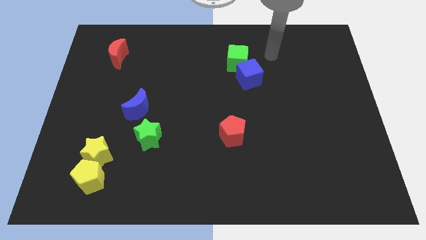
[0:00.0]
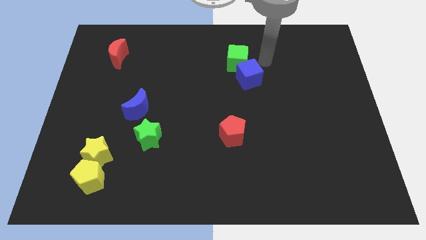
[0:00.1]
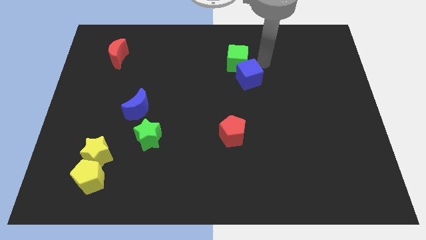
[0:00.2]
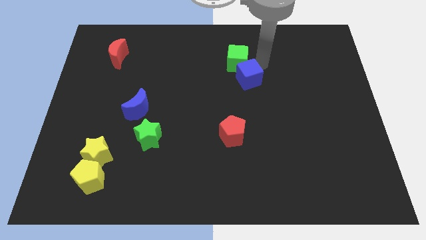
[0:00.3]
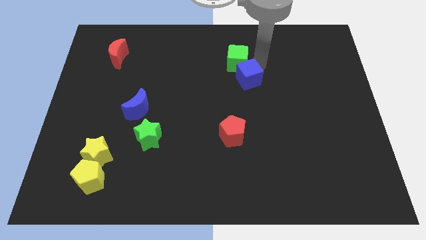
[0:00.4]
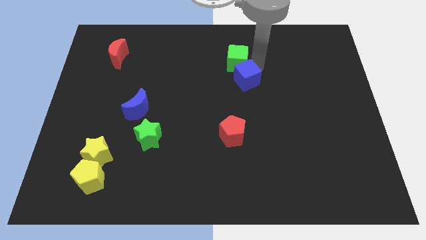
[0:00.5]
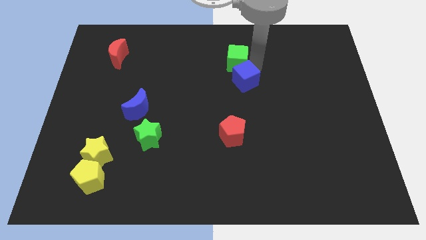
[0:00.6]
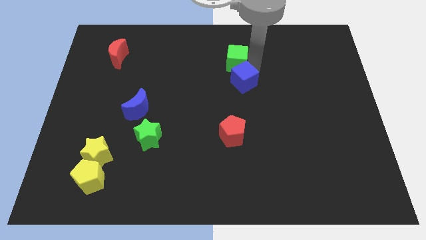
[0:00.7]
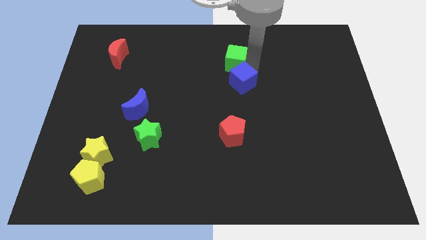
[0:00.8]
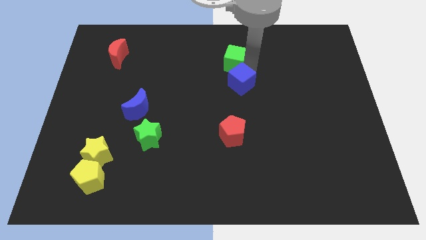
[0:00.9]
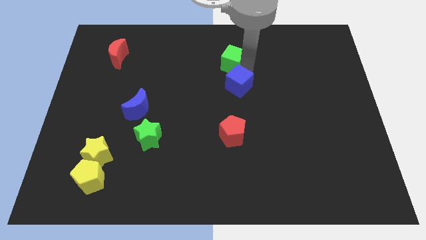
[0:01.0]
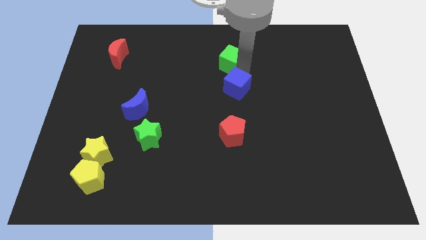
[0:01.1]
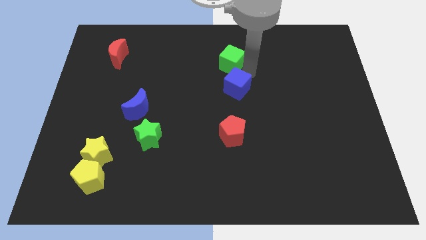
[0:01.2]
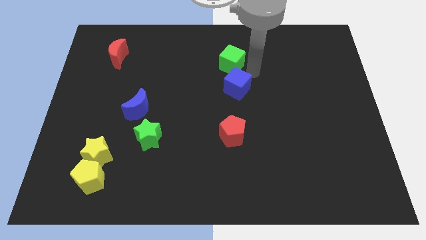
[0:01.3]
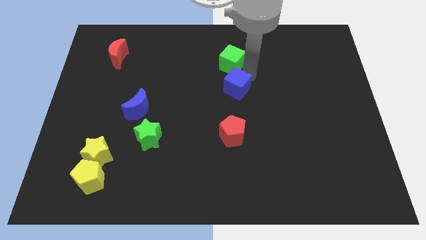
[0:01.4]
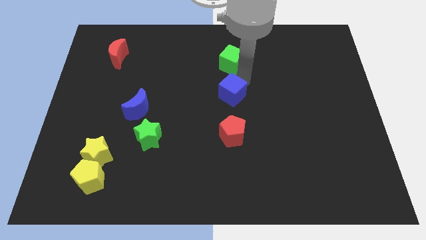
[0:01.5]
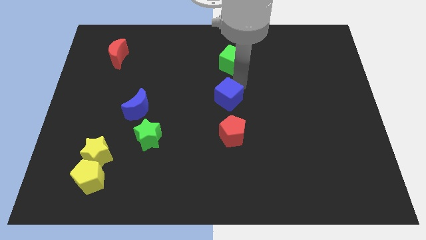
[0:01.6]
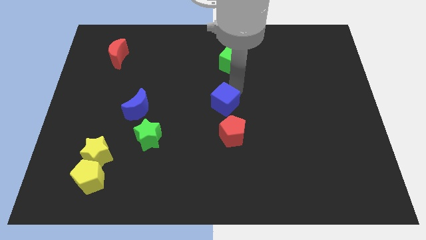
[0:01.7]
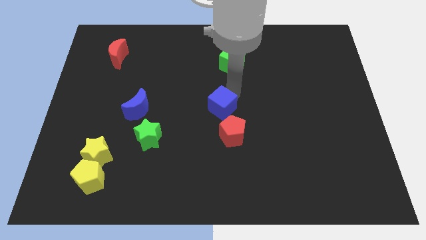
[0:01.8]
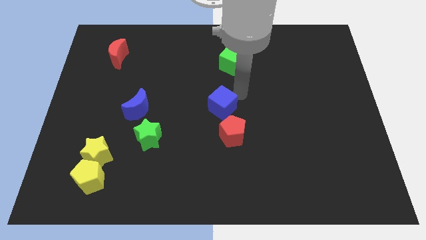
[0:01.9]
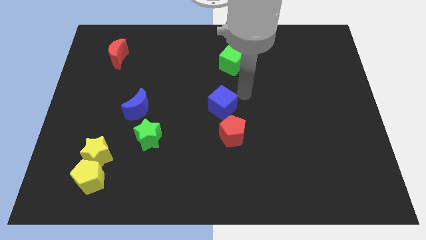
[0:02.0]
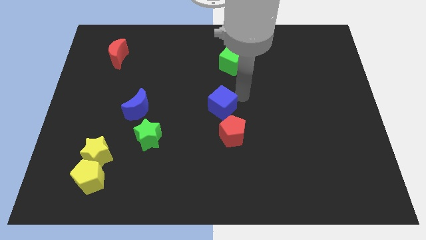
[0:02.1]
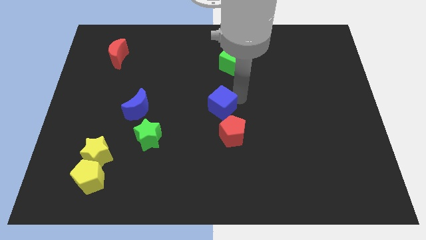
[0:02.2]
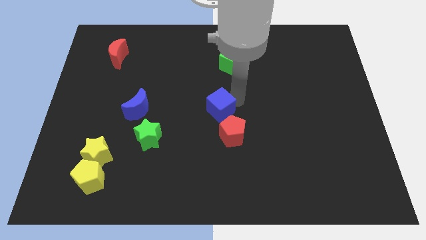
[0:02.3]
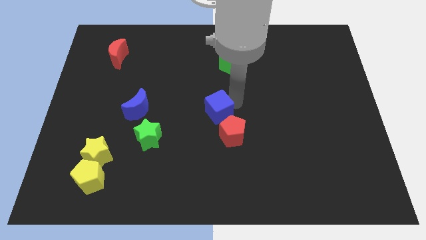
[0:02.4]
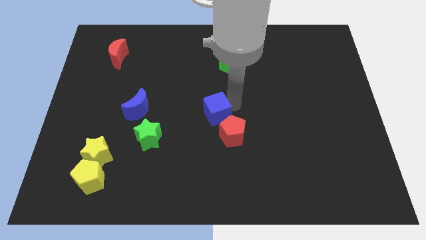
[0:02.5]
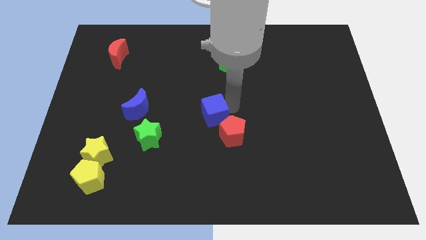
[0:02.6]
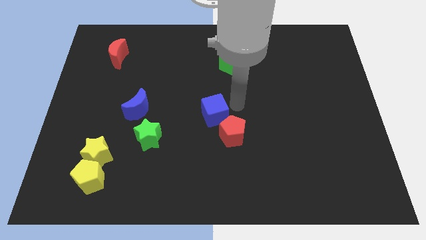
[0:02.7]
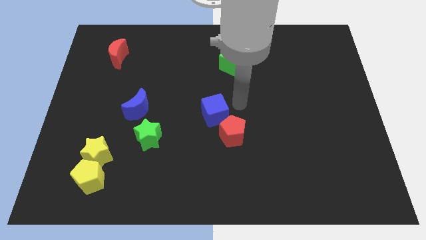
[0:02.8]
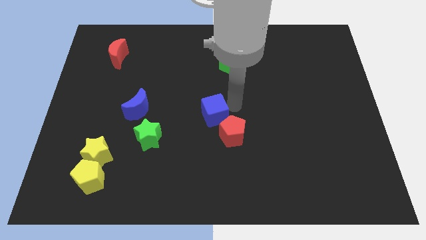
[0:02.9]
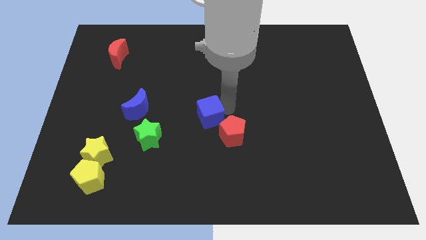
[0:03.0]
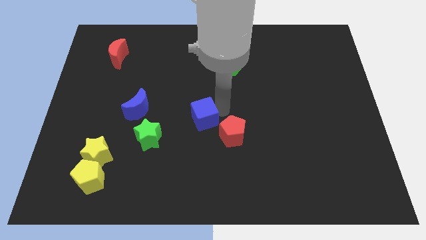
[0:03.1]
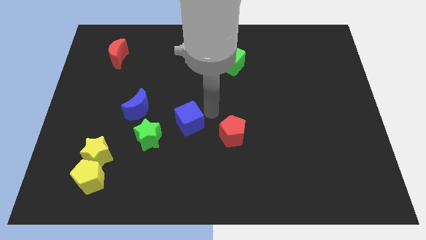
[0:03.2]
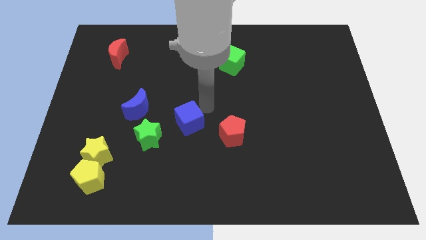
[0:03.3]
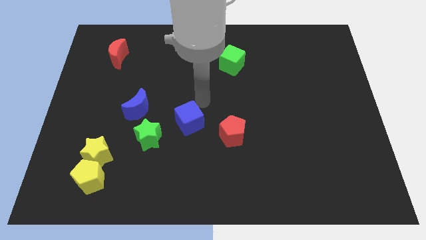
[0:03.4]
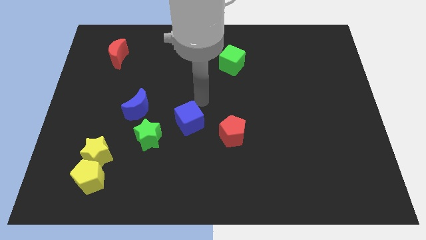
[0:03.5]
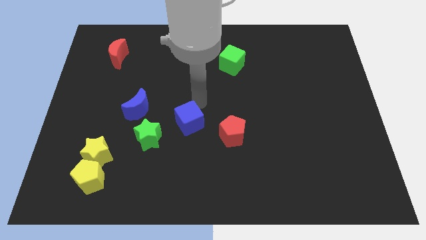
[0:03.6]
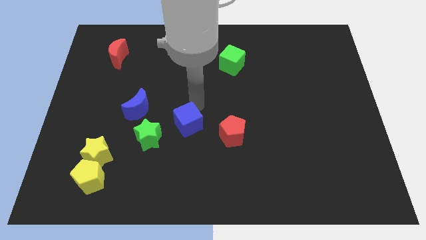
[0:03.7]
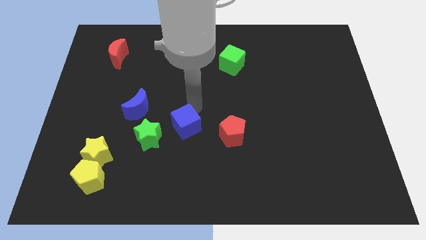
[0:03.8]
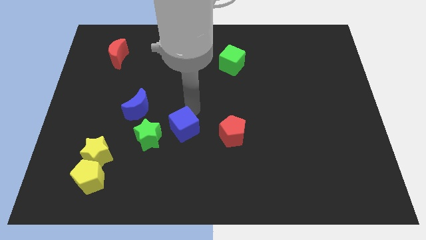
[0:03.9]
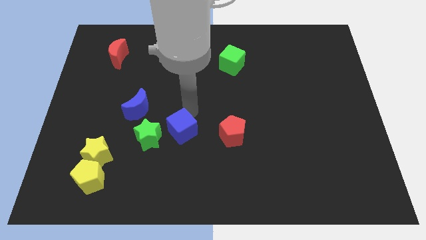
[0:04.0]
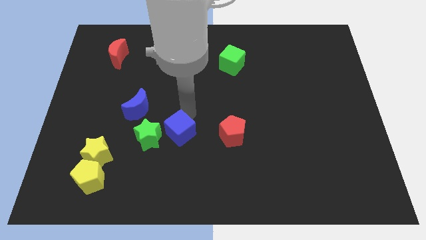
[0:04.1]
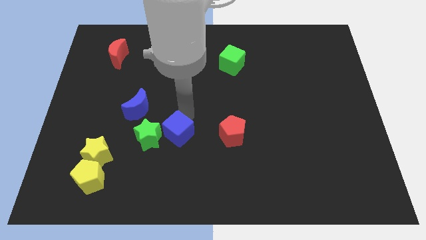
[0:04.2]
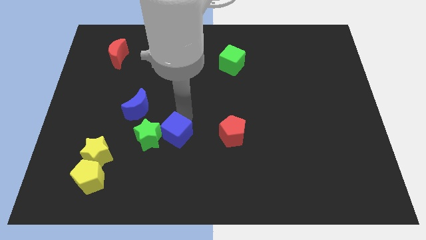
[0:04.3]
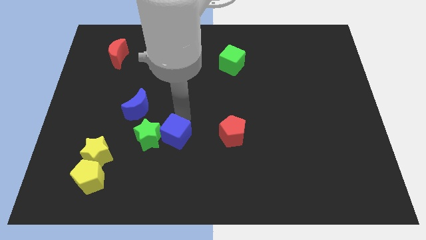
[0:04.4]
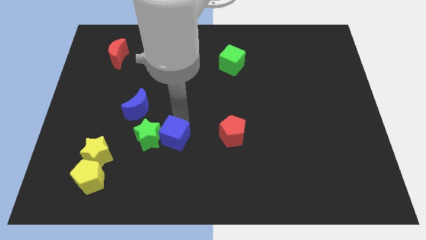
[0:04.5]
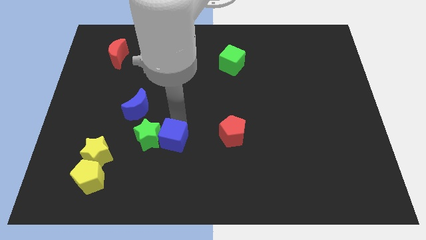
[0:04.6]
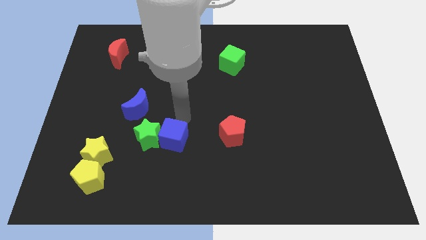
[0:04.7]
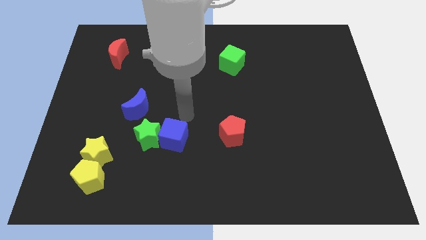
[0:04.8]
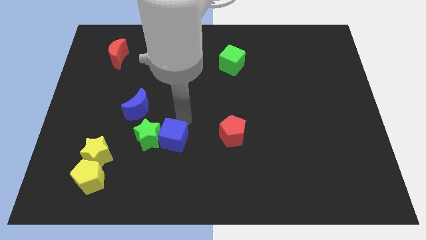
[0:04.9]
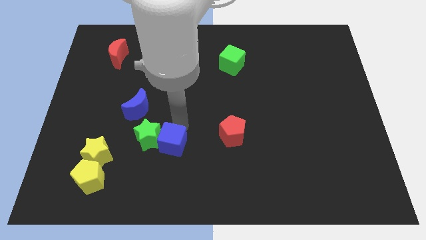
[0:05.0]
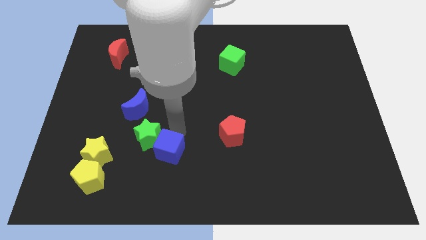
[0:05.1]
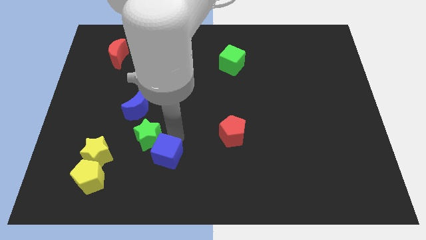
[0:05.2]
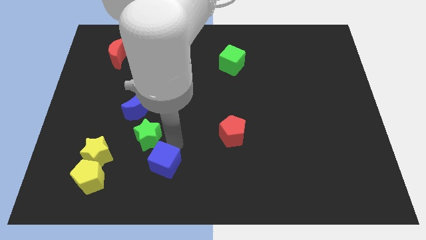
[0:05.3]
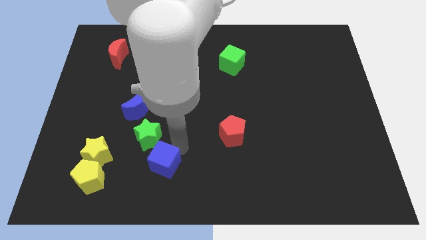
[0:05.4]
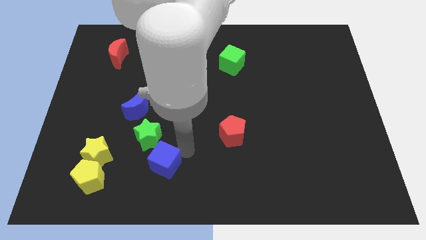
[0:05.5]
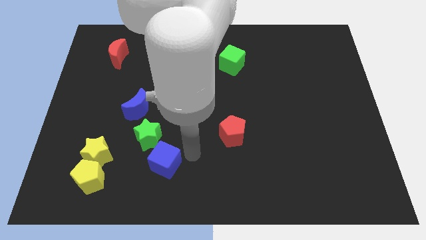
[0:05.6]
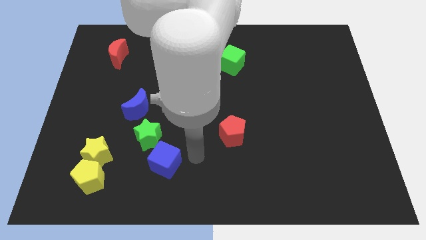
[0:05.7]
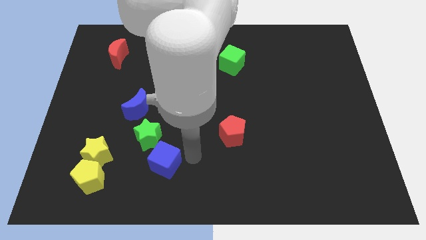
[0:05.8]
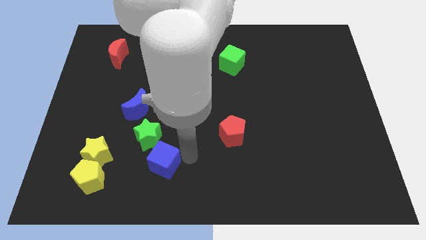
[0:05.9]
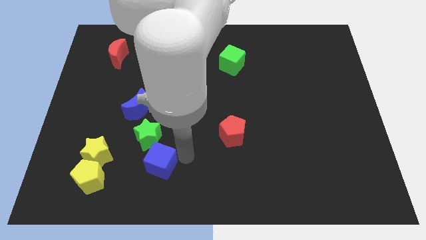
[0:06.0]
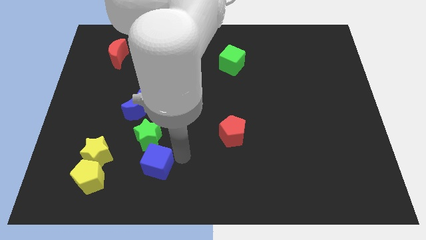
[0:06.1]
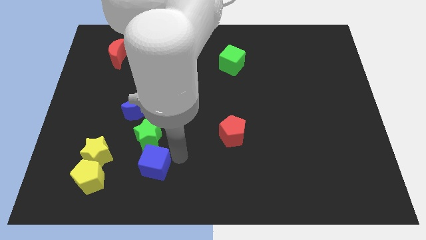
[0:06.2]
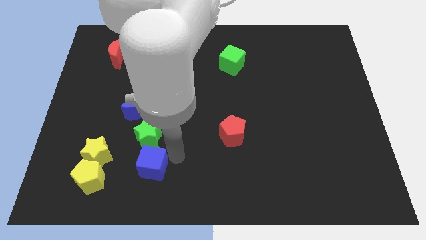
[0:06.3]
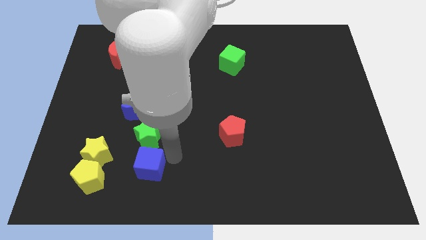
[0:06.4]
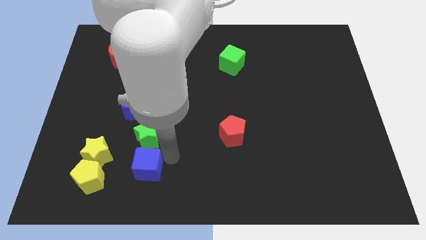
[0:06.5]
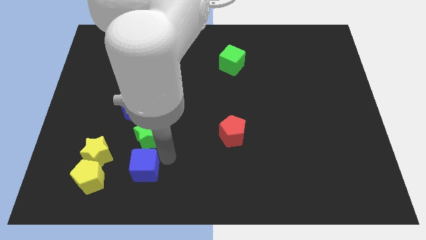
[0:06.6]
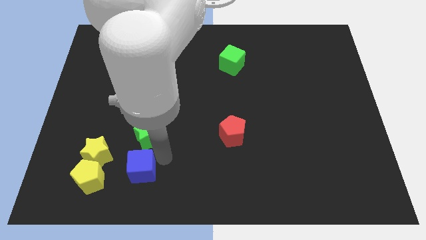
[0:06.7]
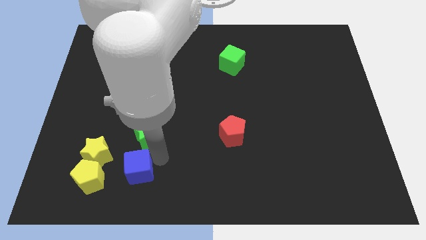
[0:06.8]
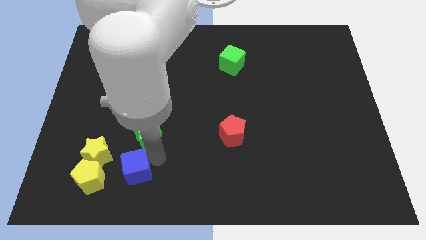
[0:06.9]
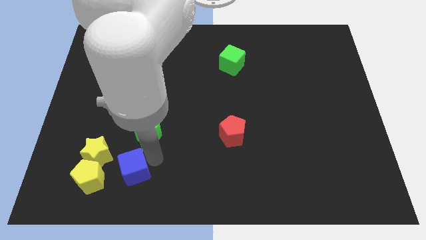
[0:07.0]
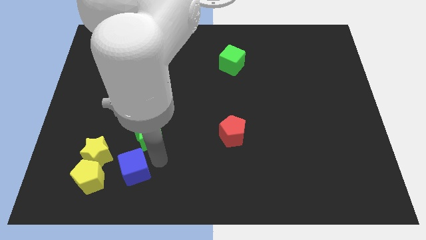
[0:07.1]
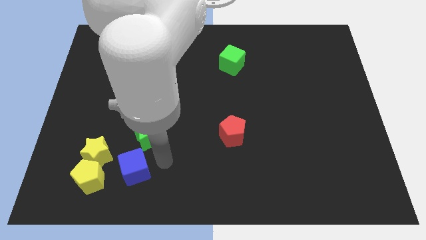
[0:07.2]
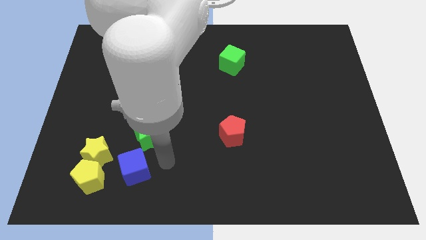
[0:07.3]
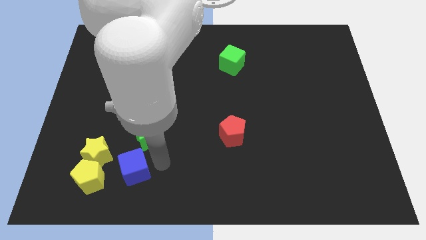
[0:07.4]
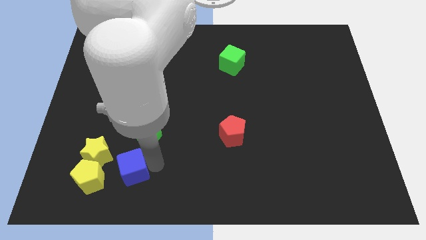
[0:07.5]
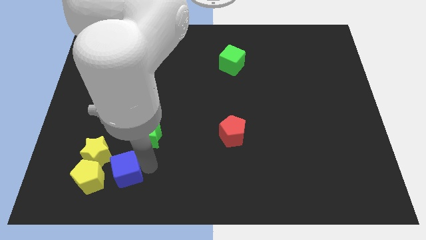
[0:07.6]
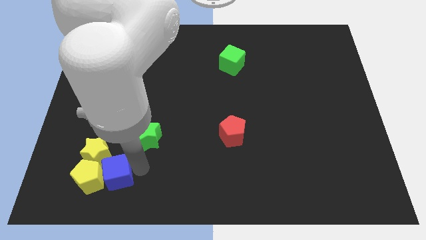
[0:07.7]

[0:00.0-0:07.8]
put the blue cube towards the yellow pentagon
